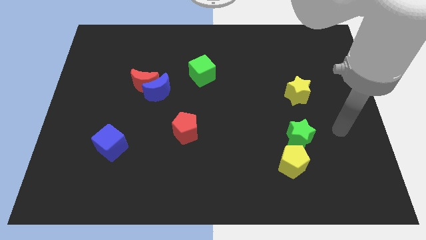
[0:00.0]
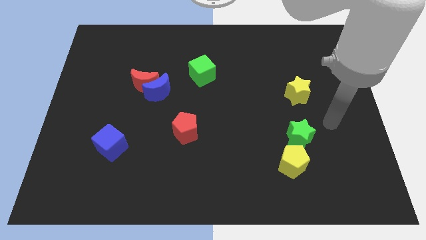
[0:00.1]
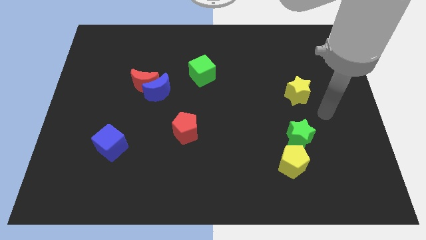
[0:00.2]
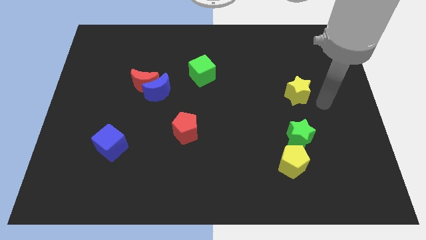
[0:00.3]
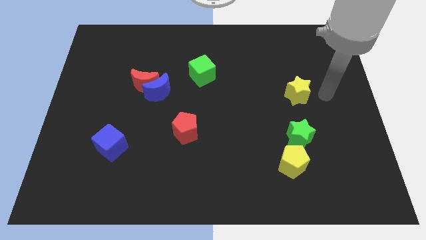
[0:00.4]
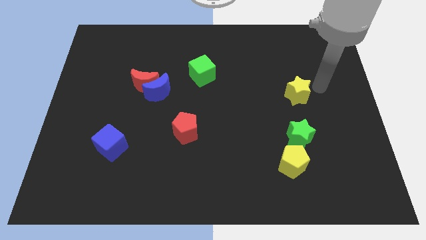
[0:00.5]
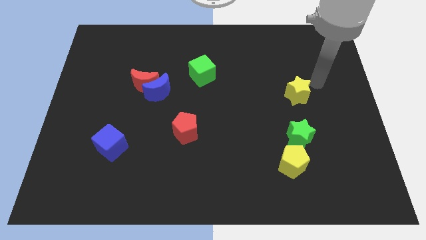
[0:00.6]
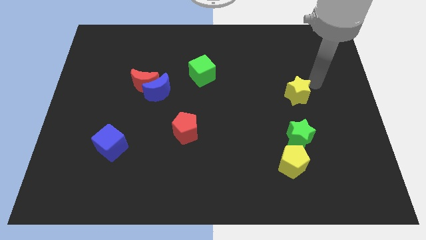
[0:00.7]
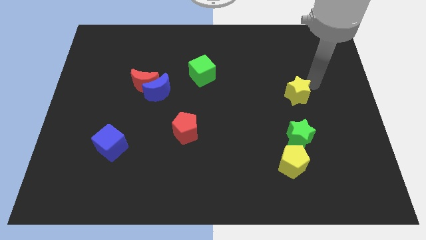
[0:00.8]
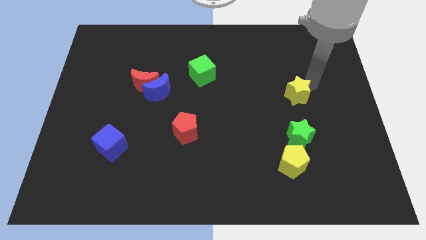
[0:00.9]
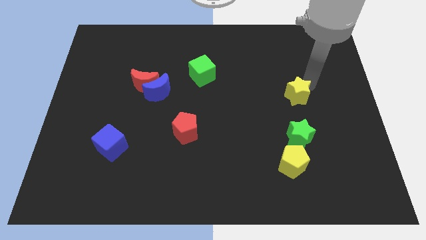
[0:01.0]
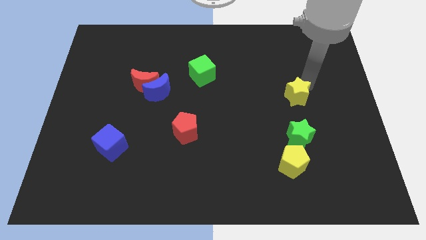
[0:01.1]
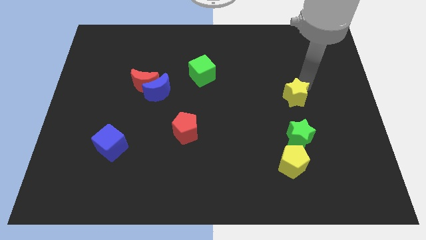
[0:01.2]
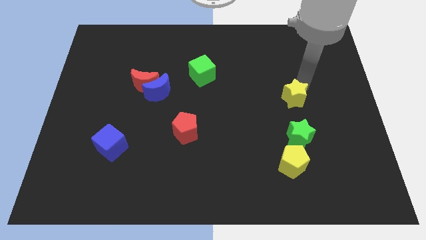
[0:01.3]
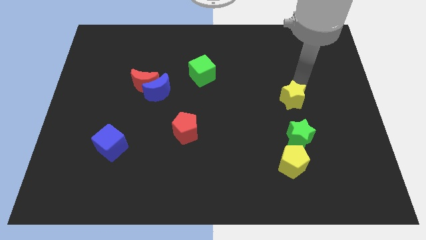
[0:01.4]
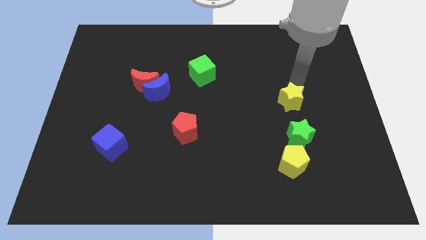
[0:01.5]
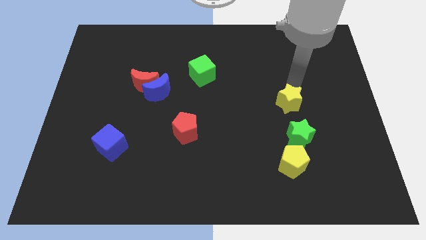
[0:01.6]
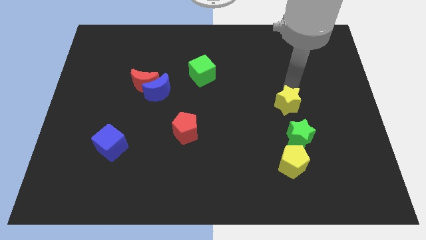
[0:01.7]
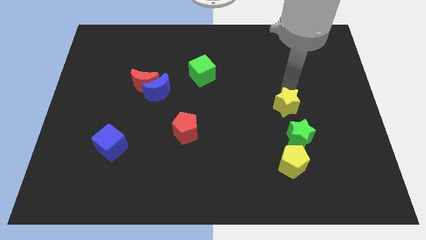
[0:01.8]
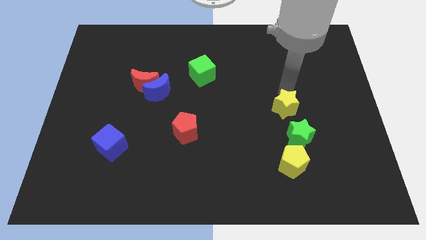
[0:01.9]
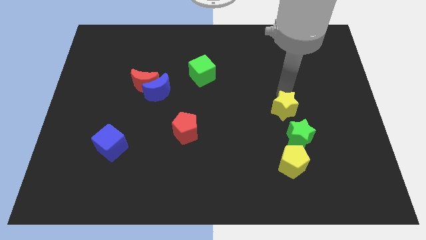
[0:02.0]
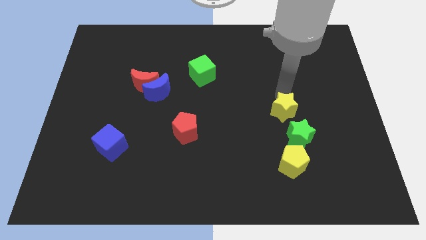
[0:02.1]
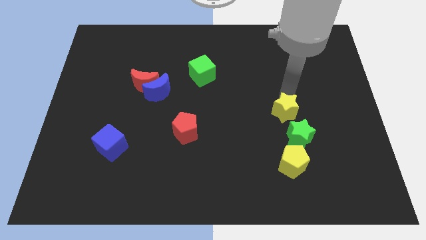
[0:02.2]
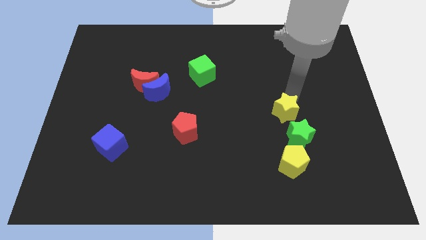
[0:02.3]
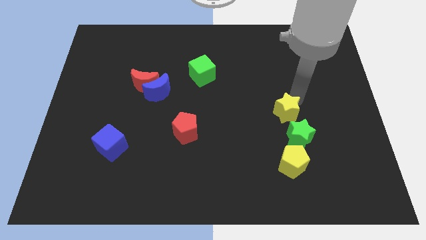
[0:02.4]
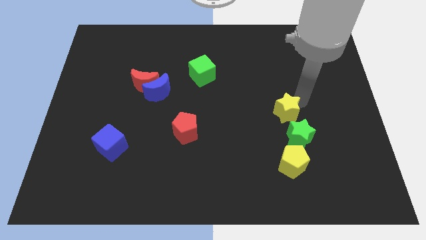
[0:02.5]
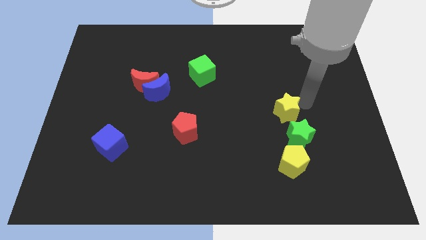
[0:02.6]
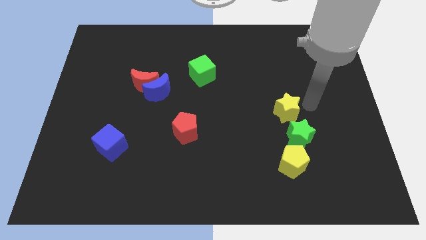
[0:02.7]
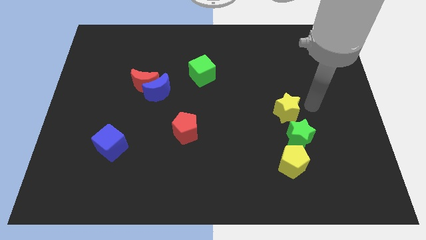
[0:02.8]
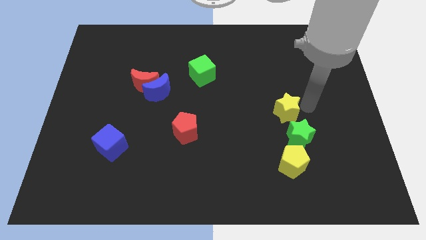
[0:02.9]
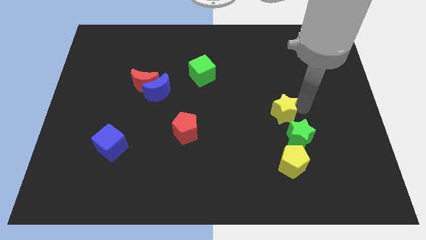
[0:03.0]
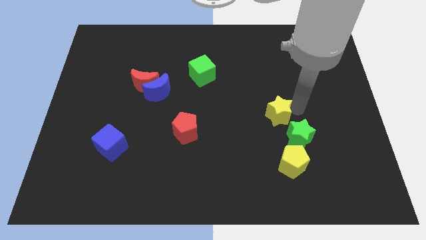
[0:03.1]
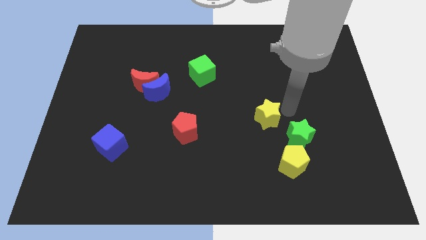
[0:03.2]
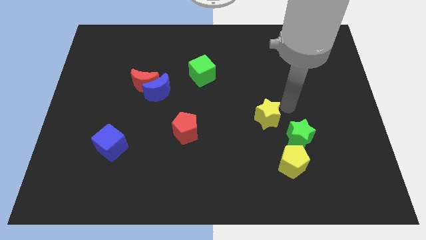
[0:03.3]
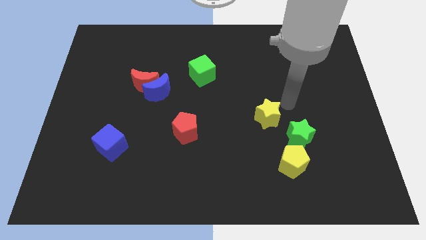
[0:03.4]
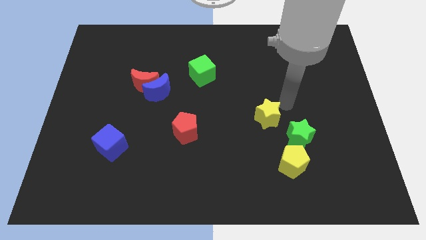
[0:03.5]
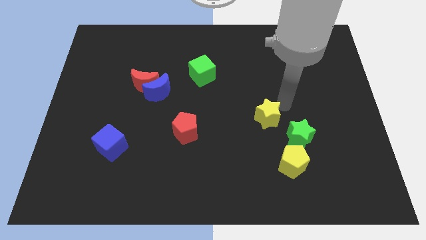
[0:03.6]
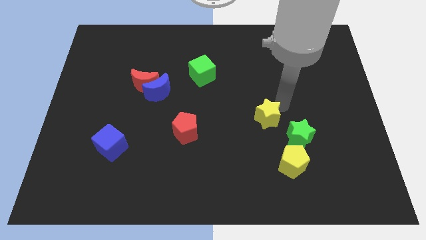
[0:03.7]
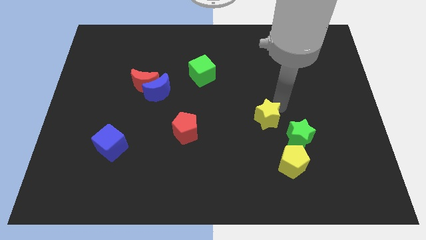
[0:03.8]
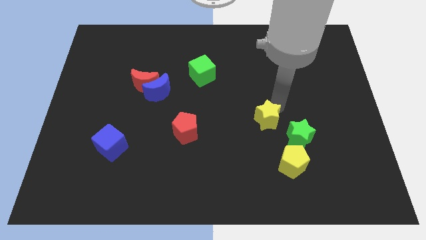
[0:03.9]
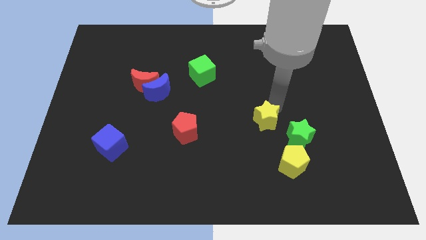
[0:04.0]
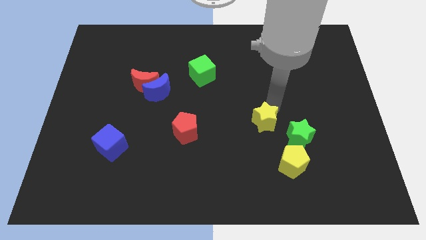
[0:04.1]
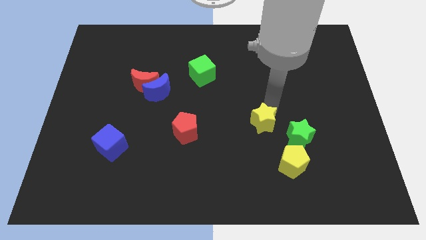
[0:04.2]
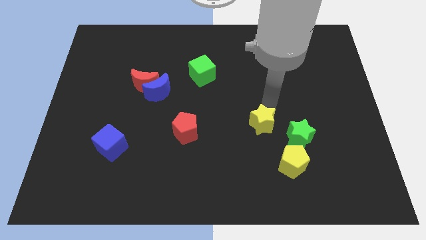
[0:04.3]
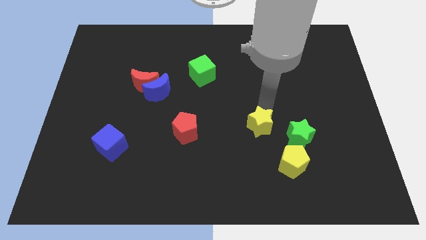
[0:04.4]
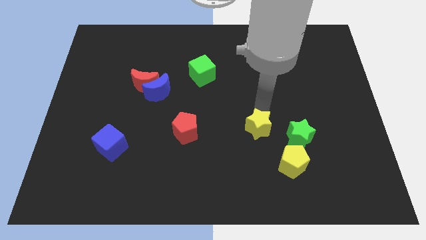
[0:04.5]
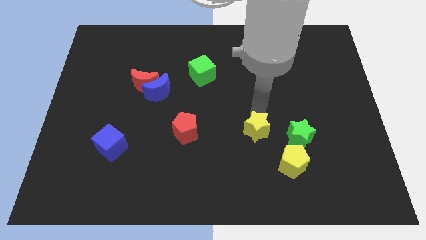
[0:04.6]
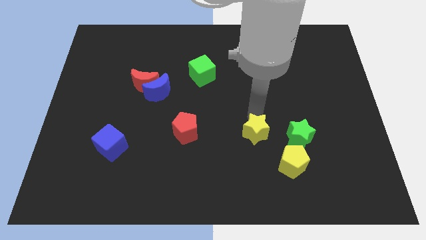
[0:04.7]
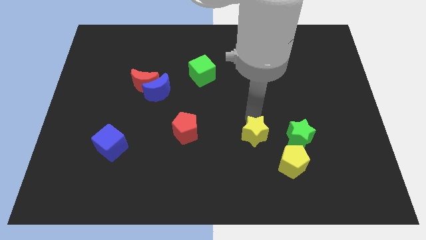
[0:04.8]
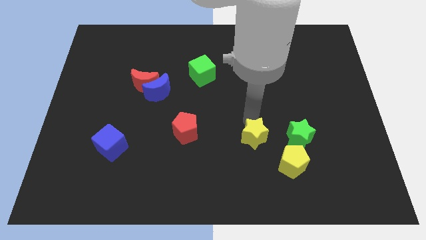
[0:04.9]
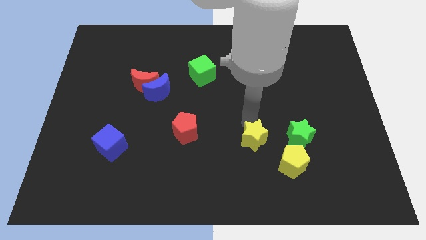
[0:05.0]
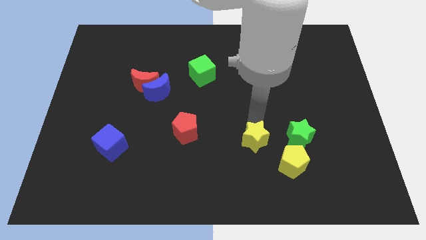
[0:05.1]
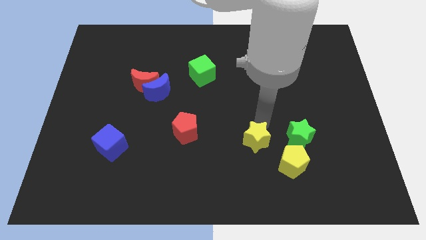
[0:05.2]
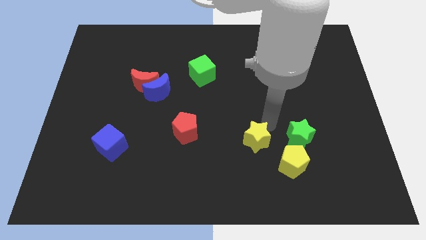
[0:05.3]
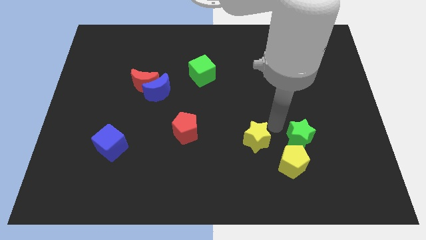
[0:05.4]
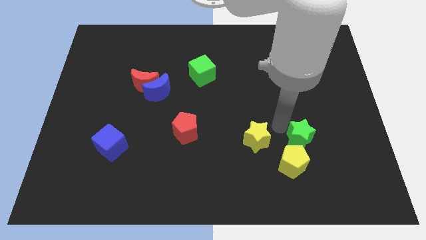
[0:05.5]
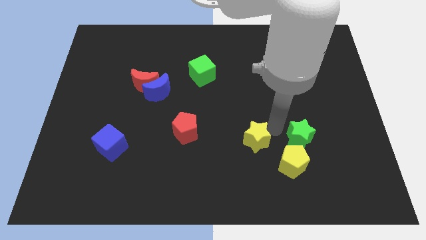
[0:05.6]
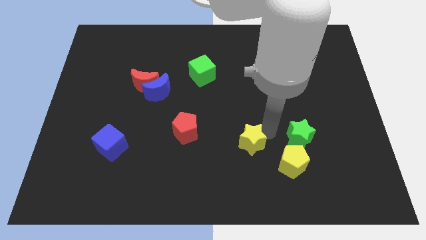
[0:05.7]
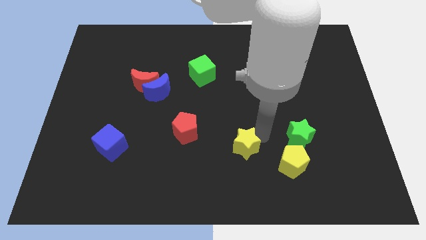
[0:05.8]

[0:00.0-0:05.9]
slide the yellow star down and left diagonally

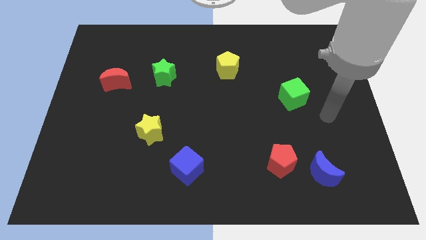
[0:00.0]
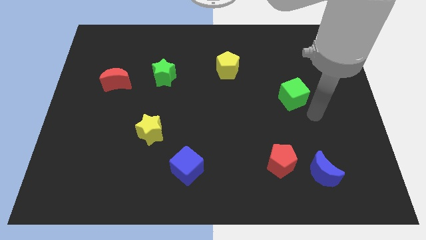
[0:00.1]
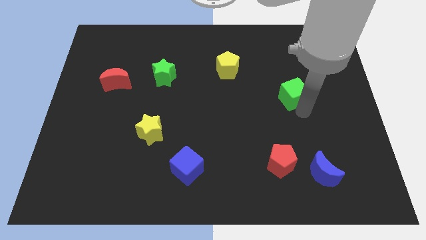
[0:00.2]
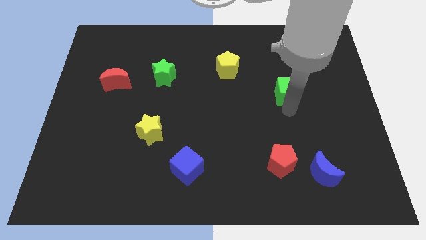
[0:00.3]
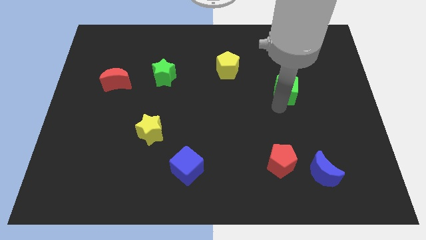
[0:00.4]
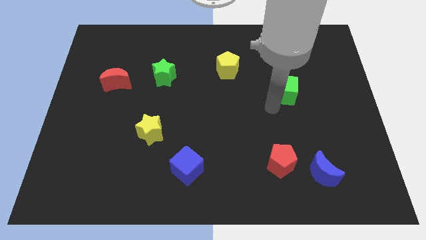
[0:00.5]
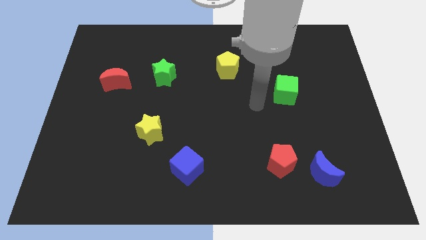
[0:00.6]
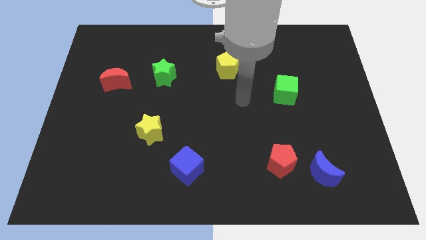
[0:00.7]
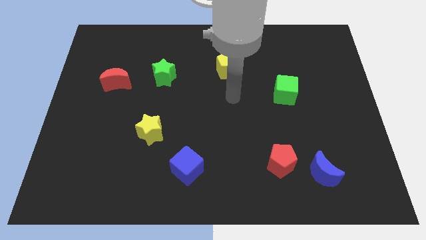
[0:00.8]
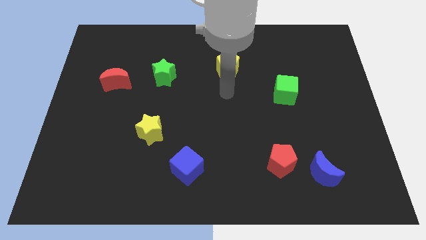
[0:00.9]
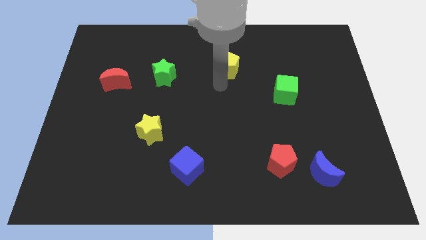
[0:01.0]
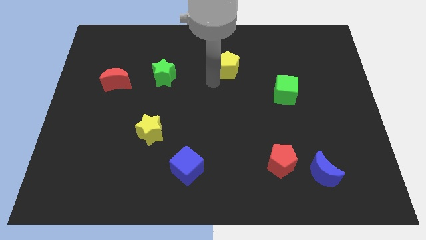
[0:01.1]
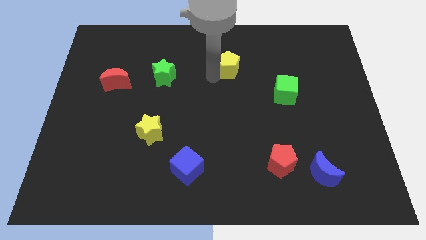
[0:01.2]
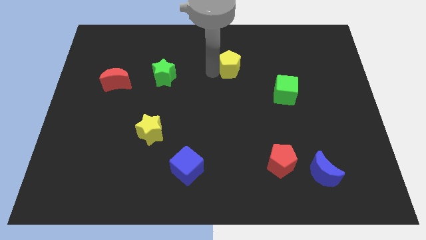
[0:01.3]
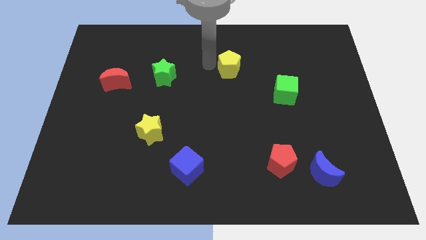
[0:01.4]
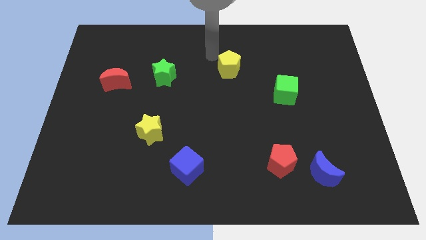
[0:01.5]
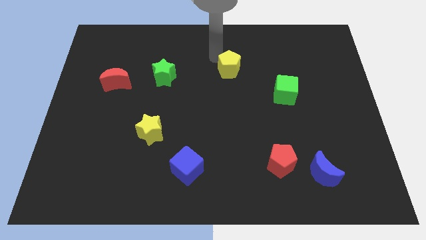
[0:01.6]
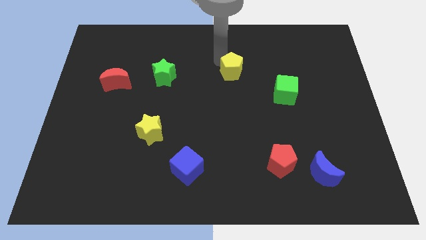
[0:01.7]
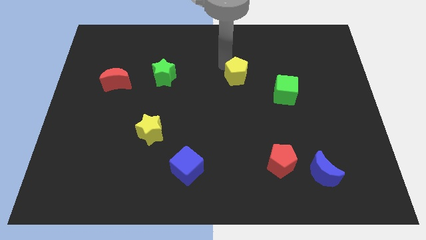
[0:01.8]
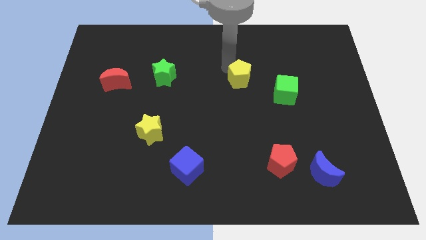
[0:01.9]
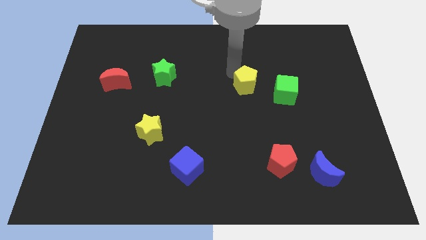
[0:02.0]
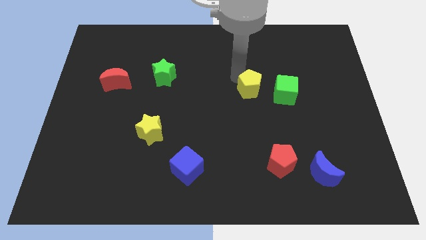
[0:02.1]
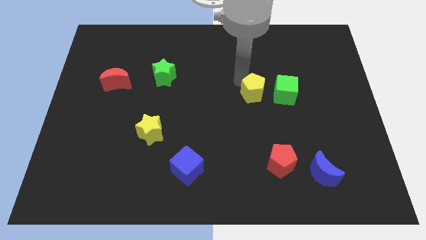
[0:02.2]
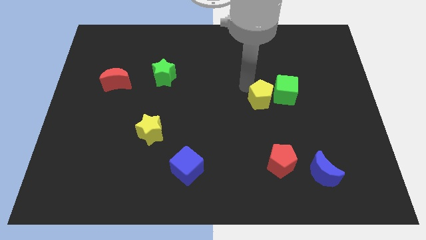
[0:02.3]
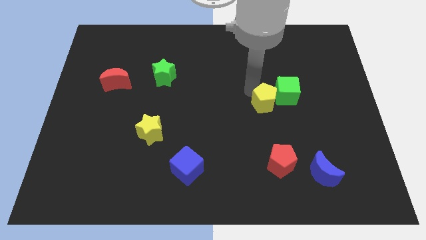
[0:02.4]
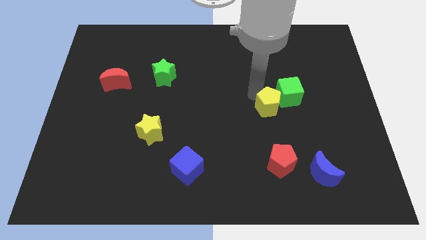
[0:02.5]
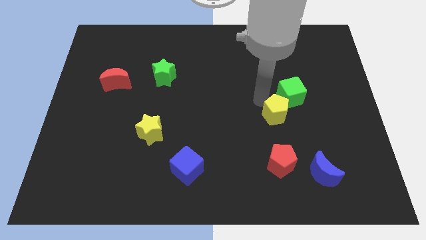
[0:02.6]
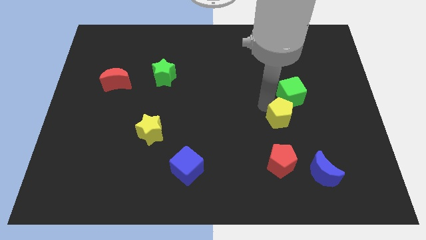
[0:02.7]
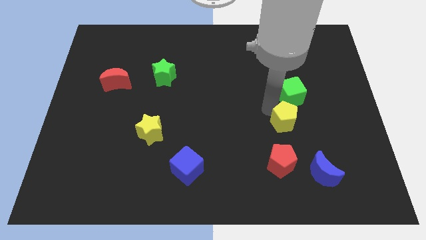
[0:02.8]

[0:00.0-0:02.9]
slide the yellow pentagon down and then to the right
